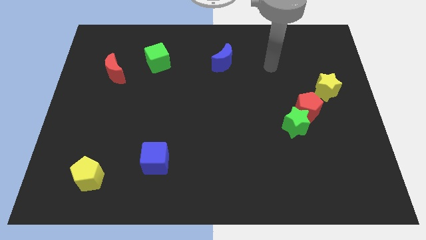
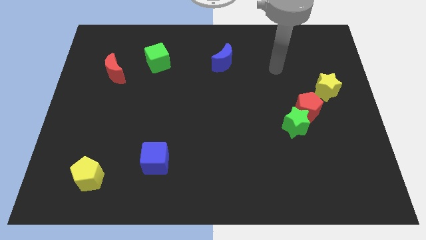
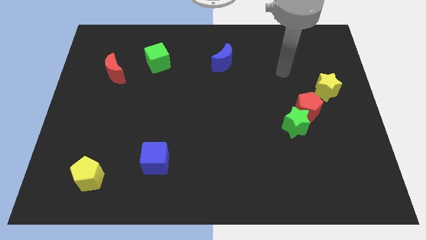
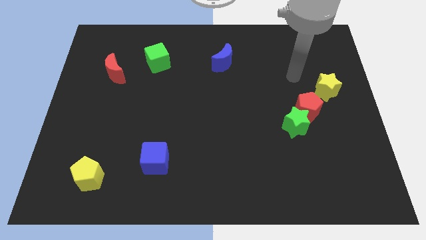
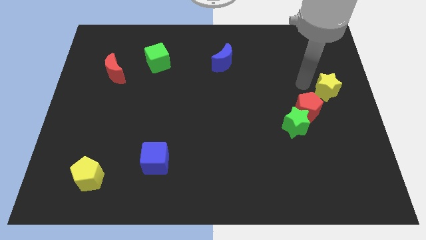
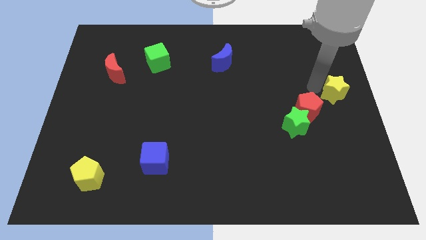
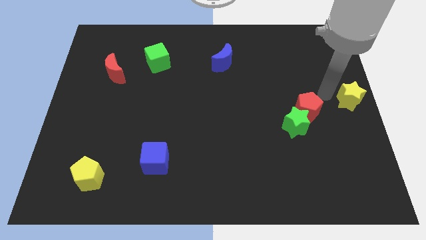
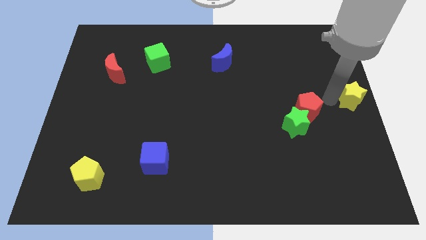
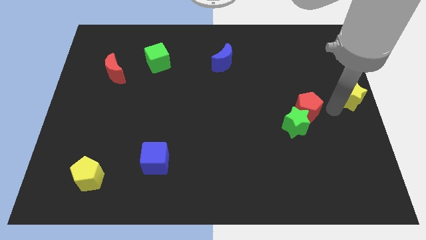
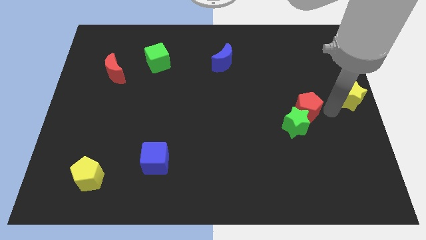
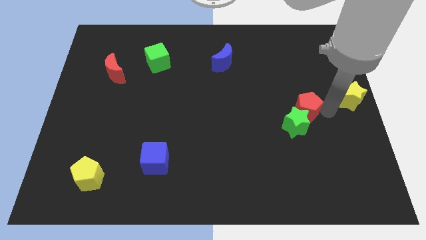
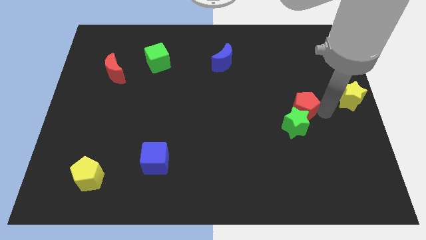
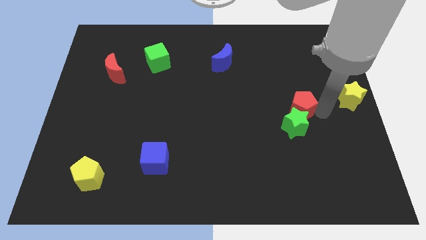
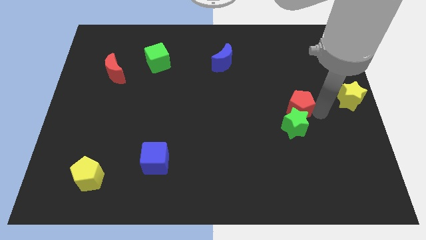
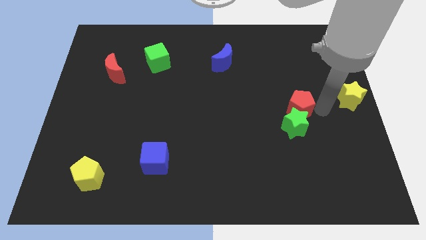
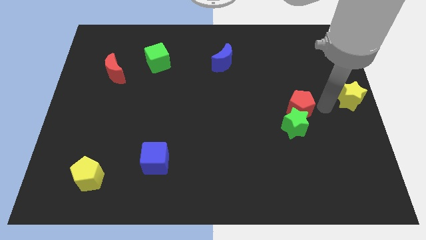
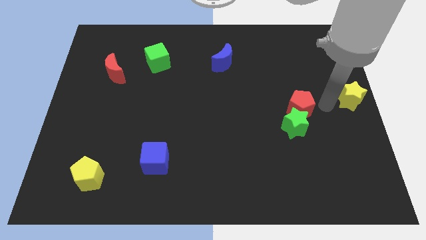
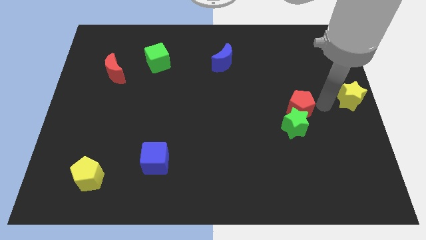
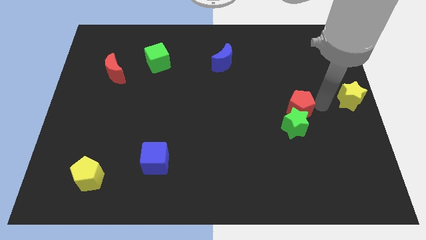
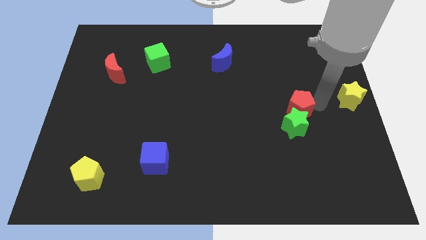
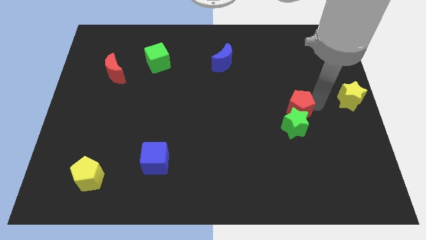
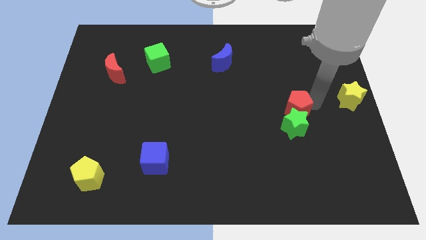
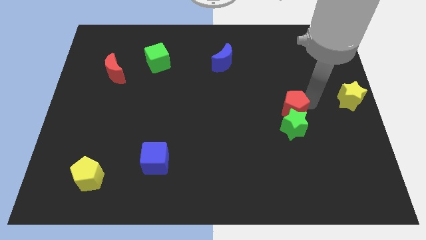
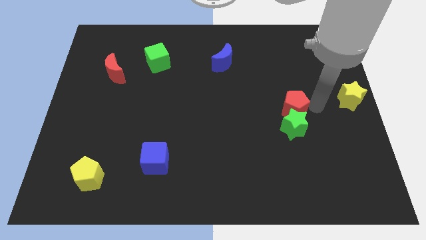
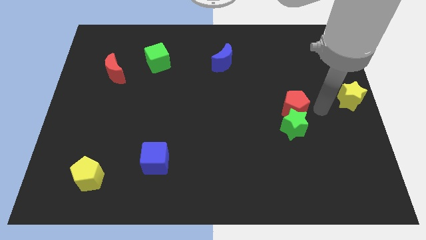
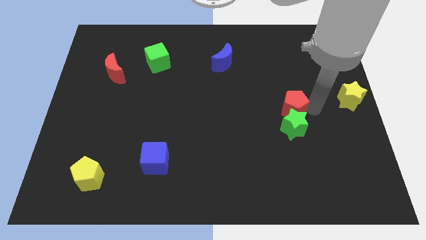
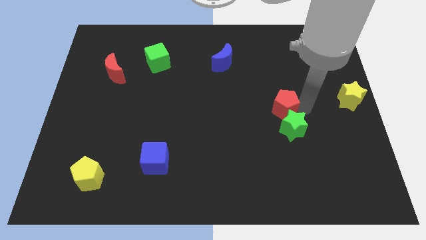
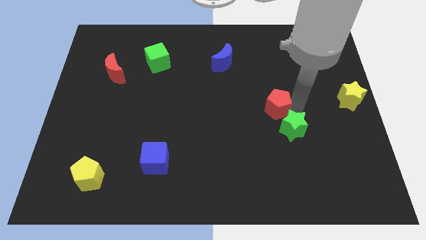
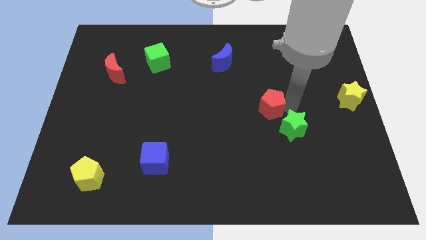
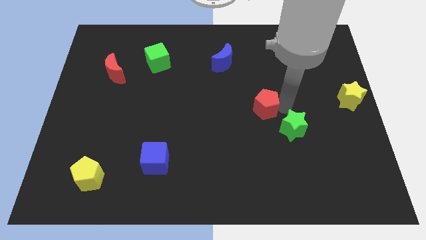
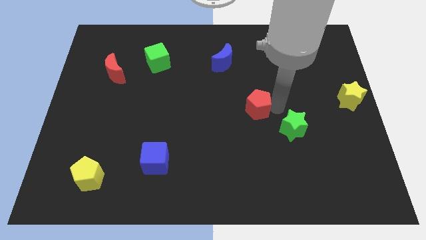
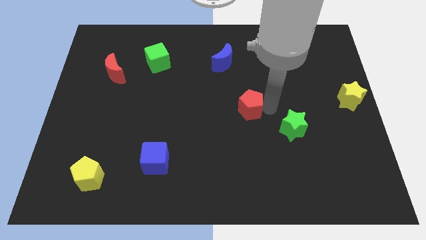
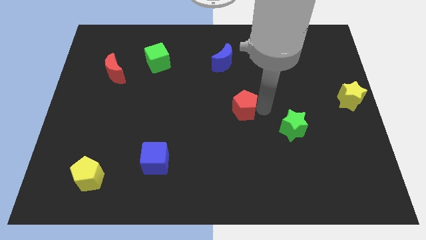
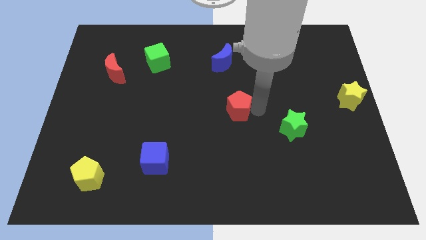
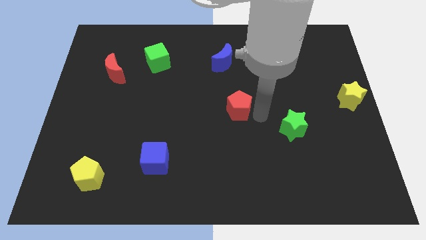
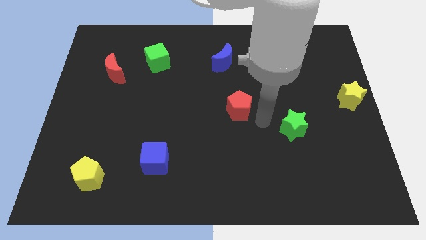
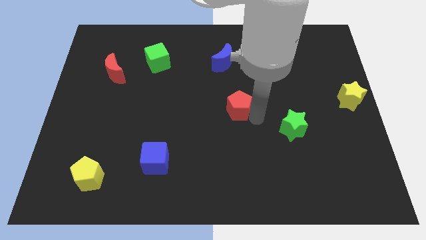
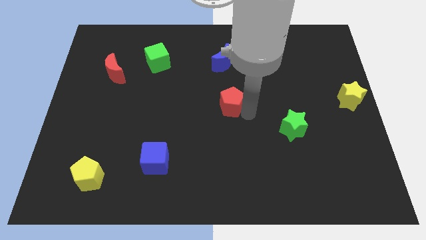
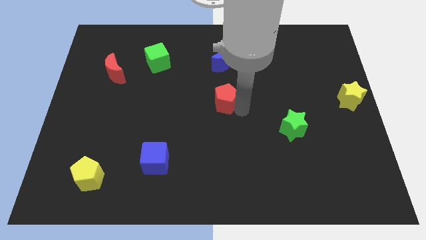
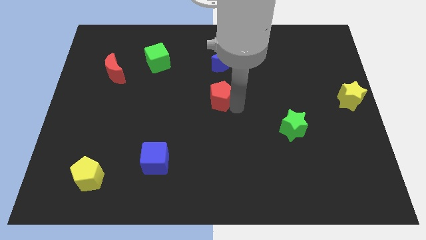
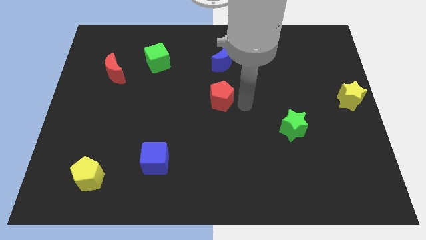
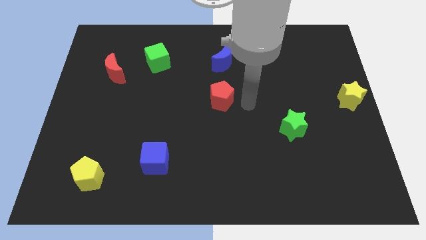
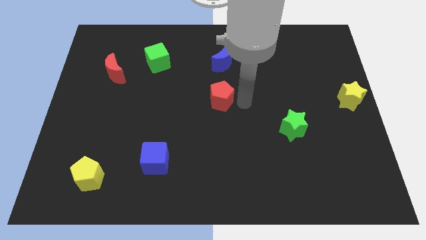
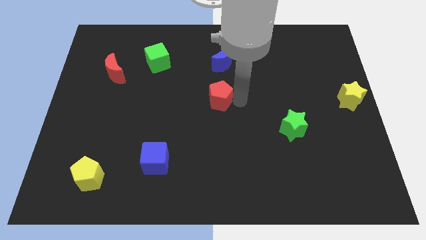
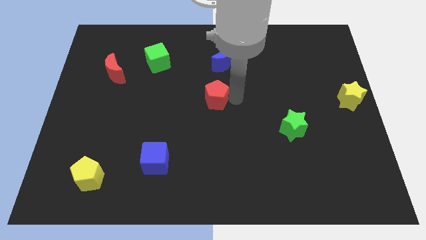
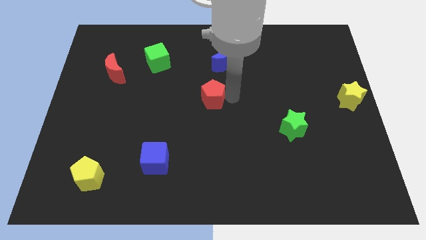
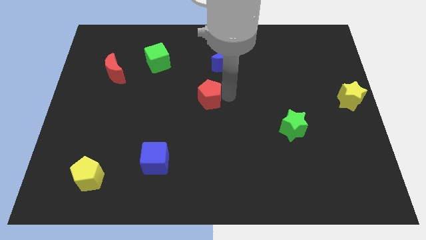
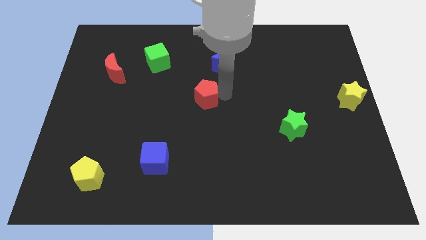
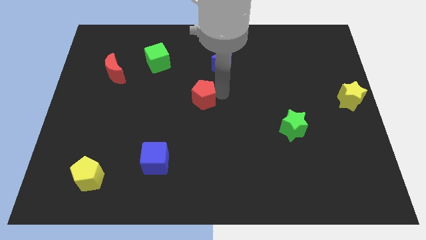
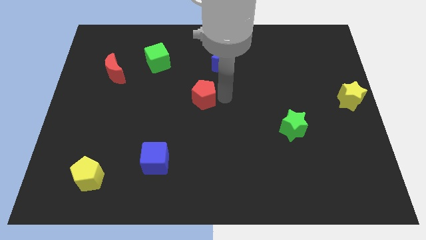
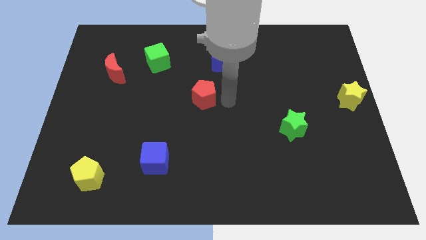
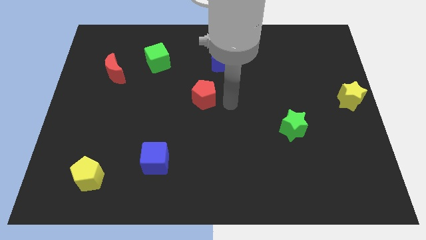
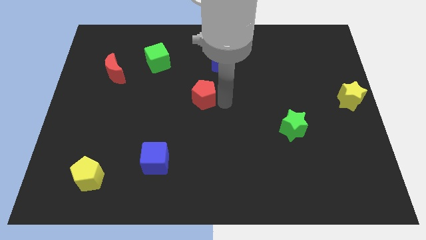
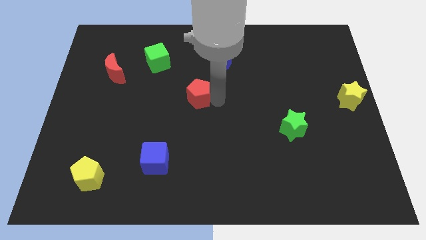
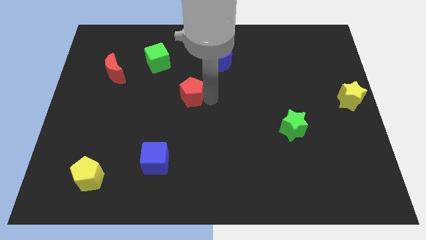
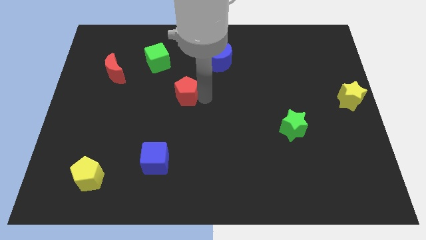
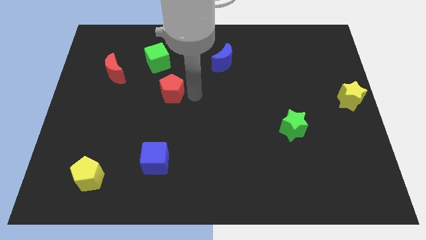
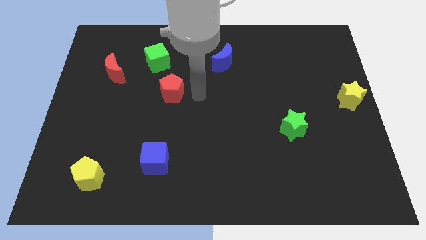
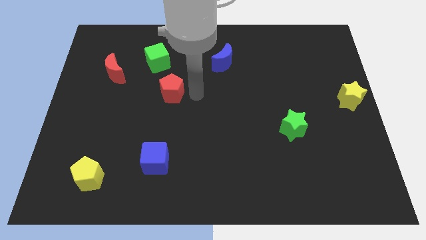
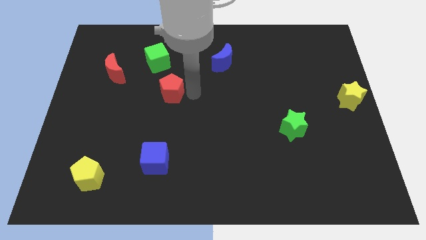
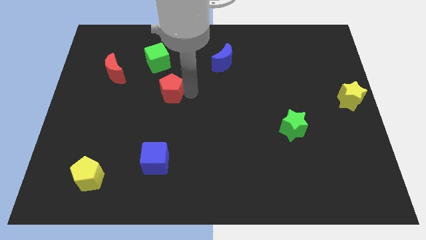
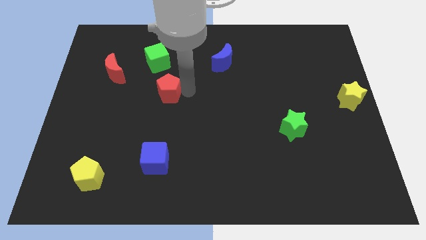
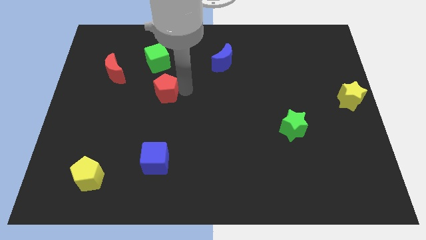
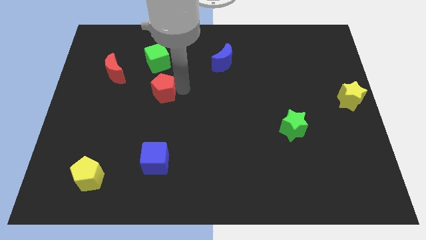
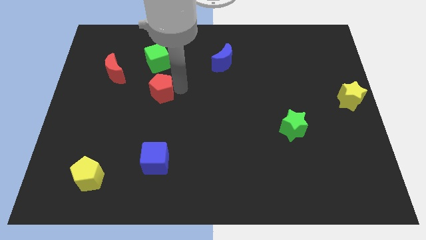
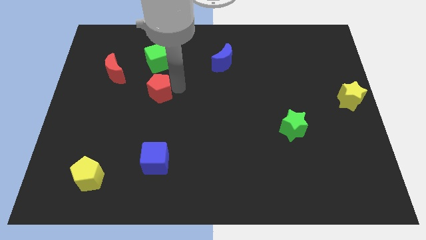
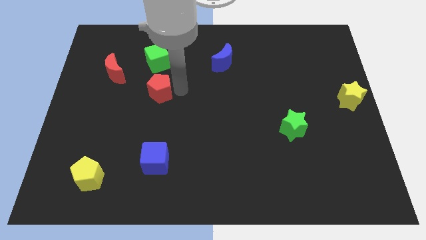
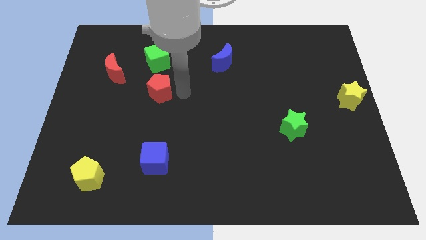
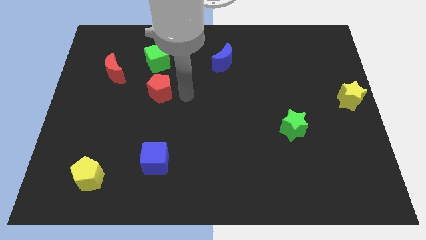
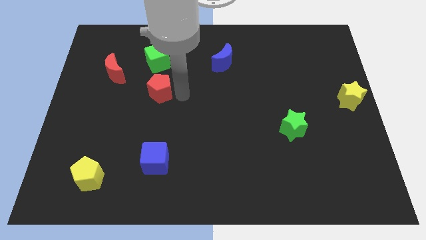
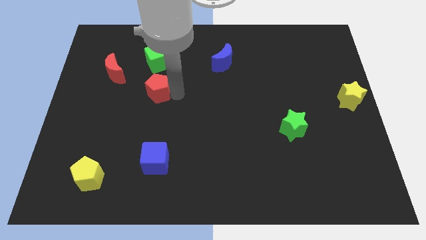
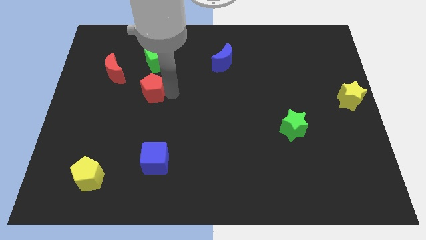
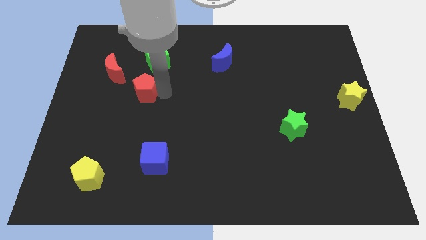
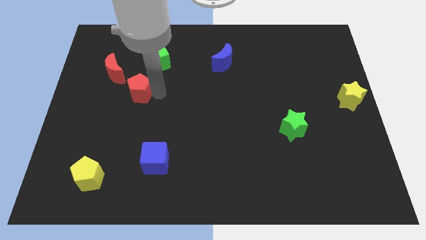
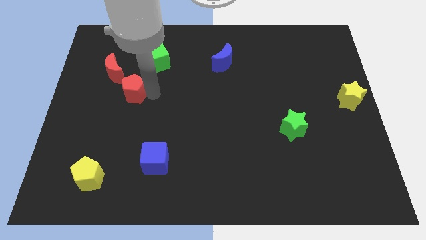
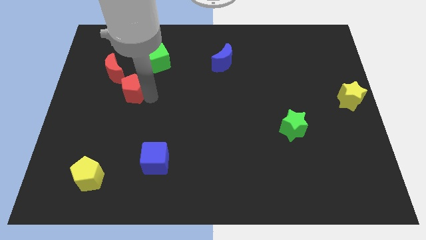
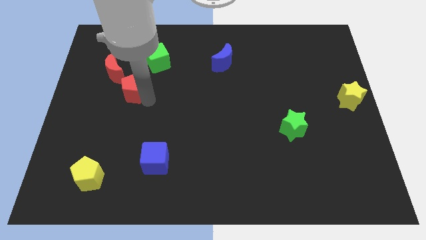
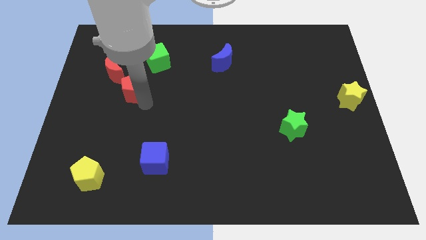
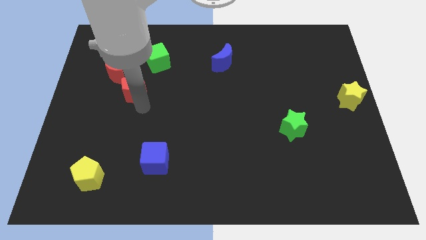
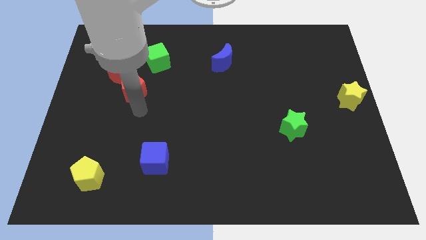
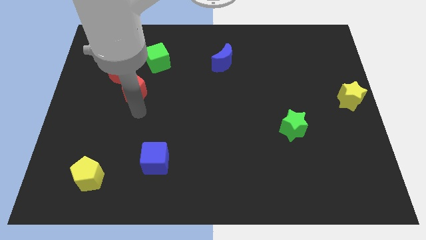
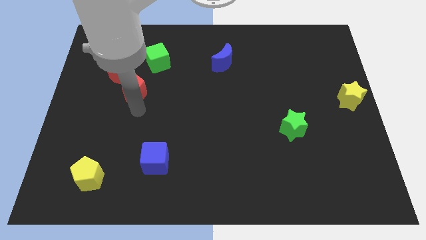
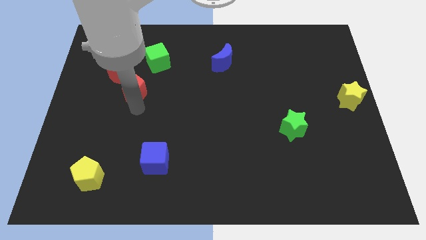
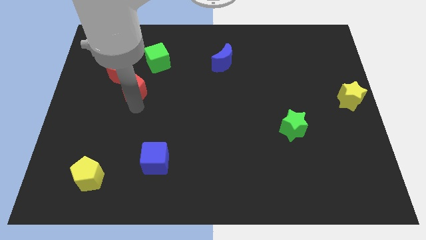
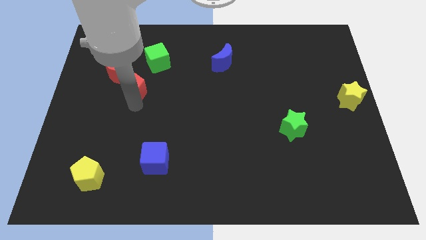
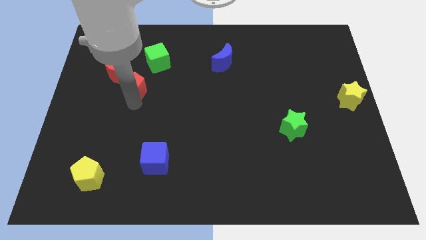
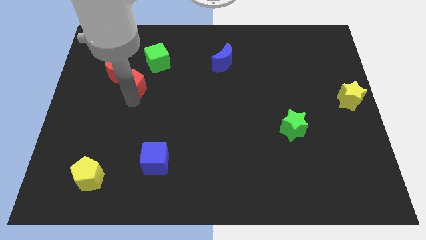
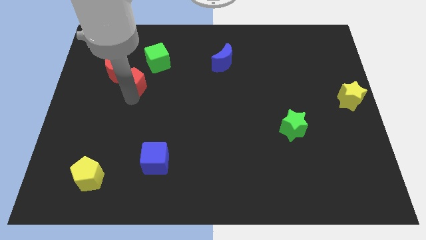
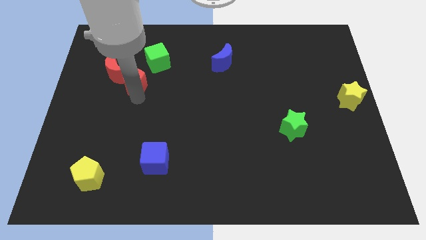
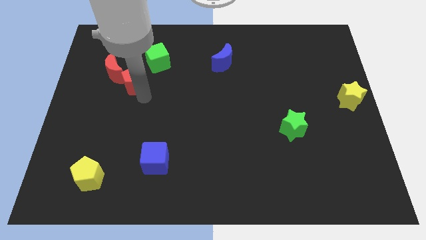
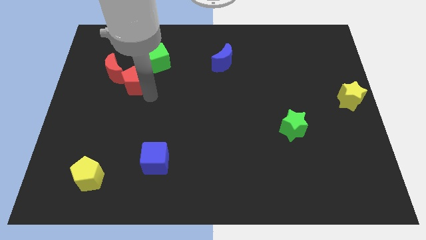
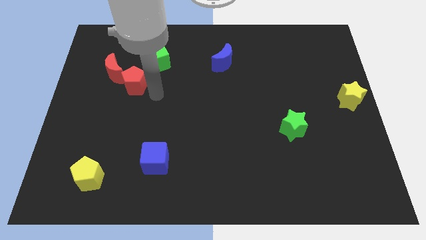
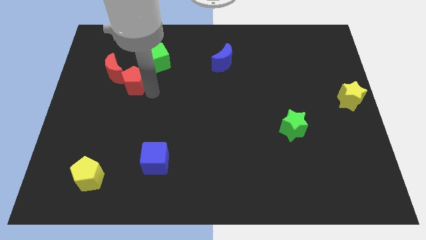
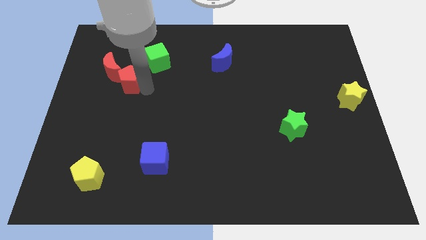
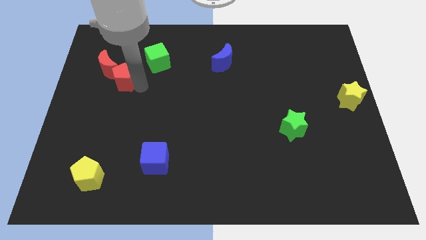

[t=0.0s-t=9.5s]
slide the red pentagon towards the red moon
